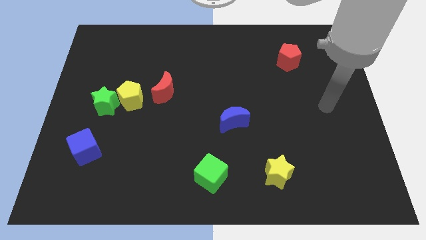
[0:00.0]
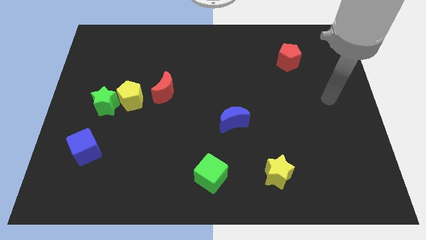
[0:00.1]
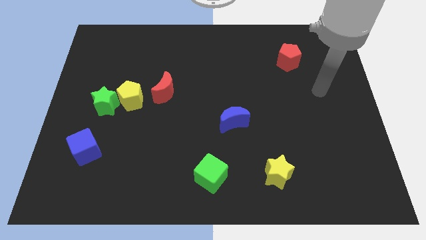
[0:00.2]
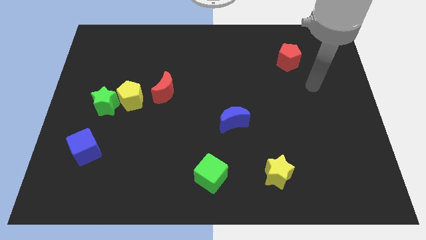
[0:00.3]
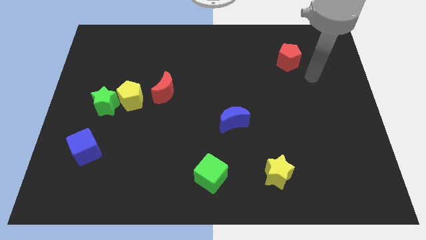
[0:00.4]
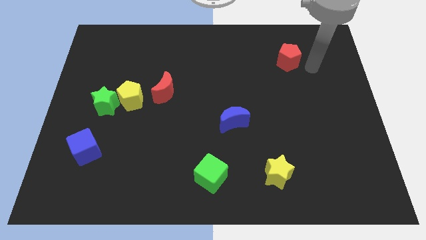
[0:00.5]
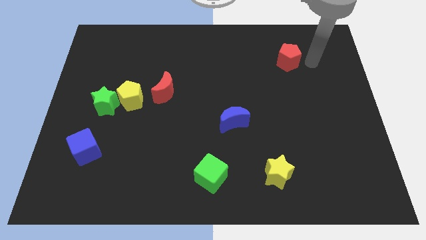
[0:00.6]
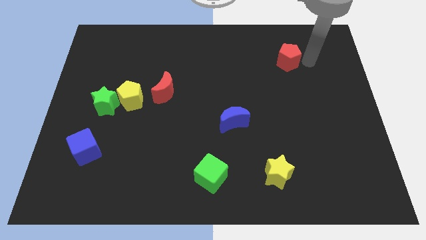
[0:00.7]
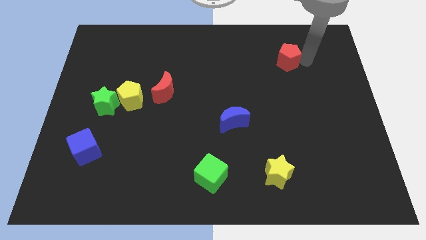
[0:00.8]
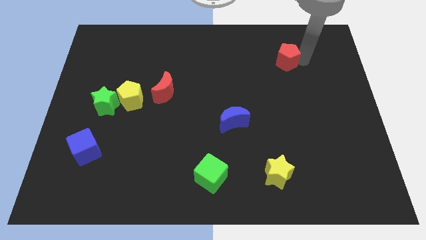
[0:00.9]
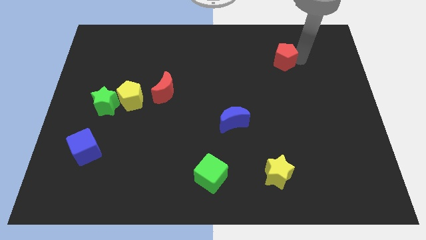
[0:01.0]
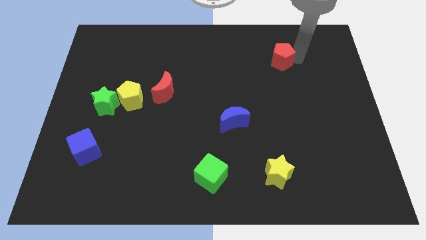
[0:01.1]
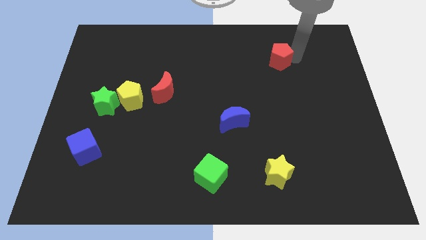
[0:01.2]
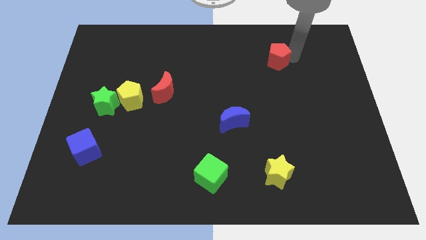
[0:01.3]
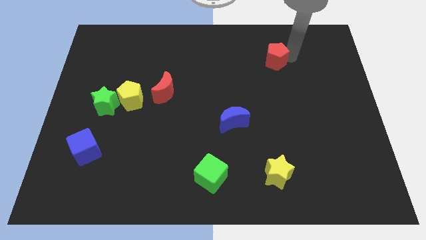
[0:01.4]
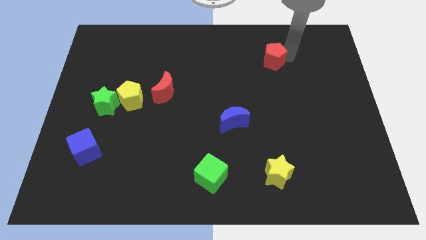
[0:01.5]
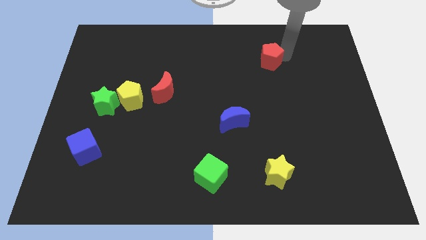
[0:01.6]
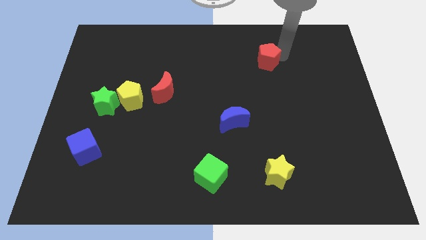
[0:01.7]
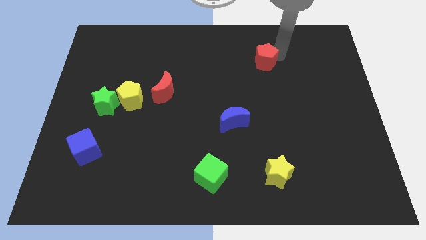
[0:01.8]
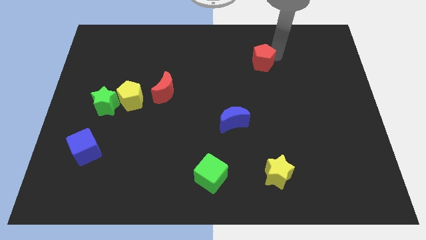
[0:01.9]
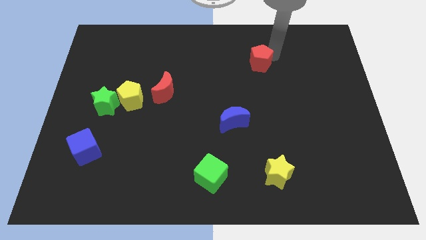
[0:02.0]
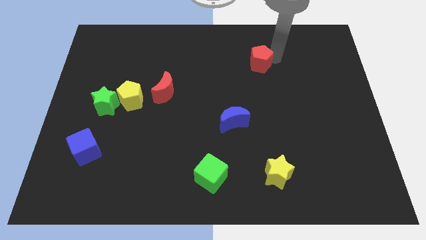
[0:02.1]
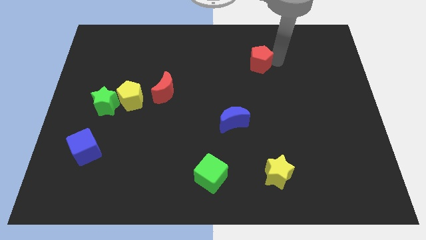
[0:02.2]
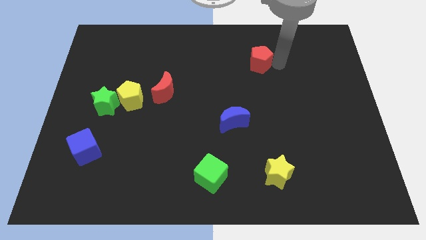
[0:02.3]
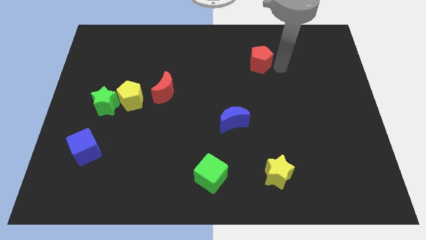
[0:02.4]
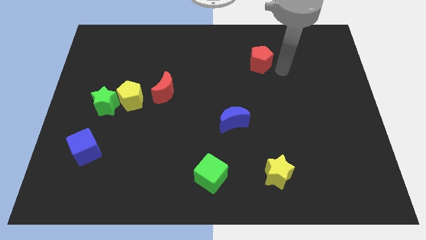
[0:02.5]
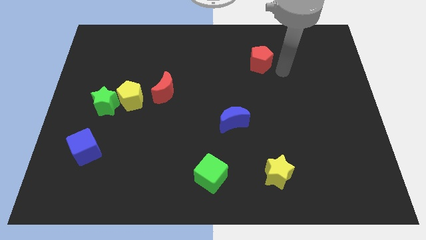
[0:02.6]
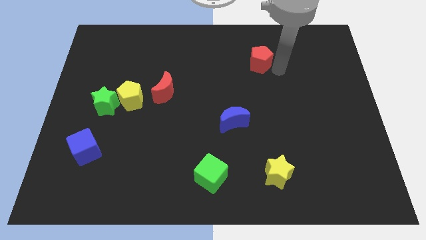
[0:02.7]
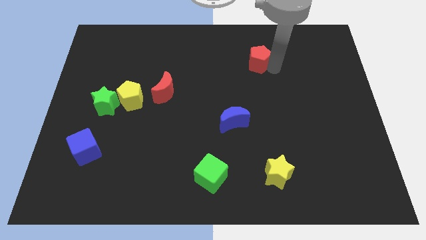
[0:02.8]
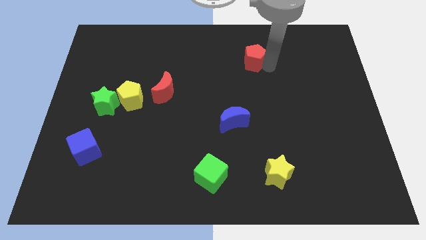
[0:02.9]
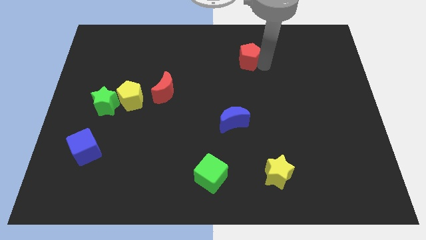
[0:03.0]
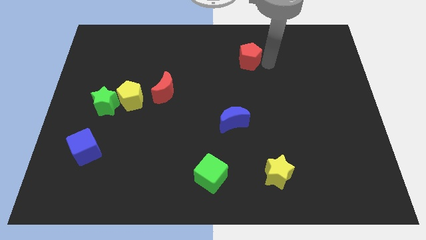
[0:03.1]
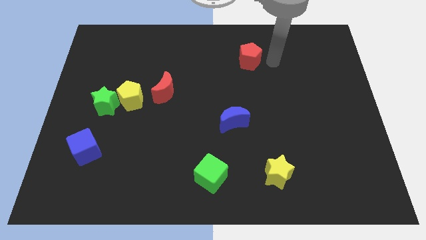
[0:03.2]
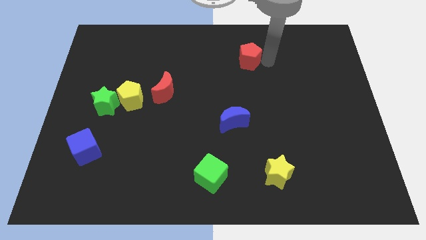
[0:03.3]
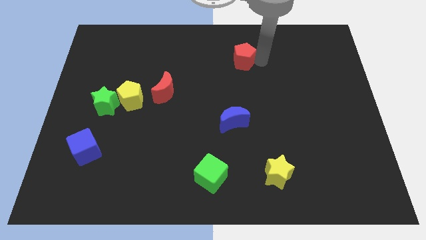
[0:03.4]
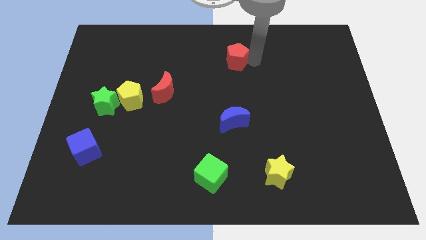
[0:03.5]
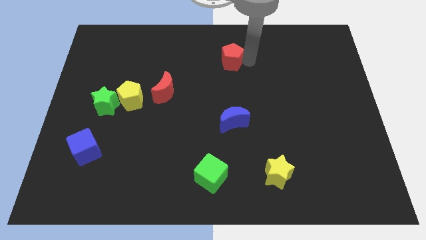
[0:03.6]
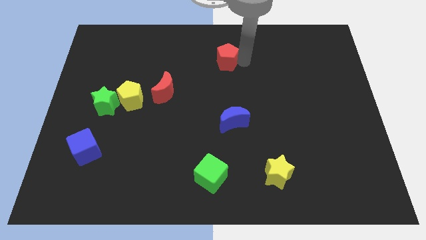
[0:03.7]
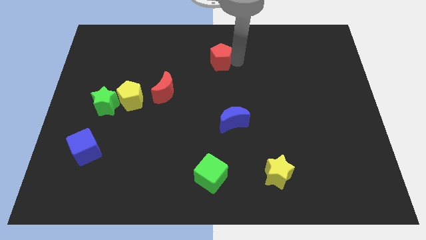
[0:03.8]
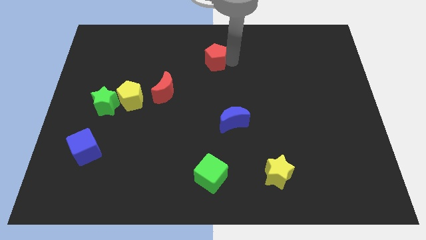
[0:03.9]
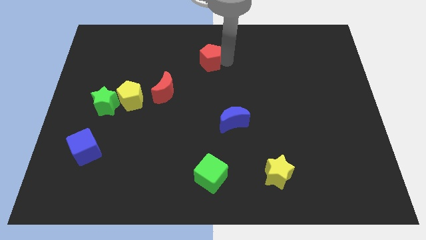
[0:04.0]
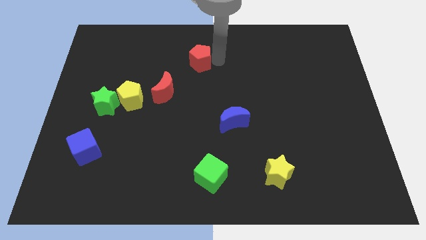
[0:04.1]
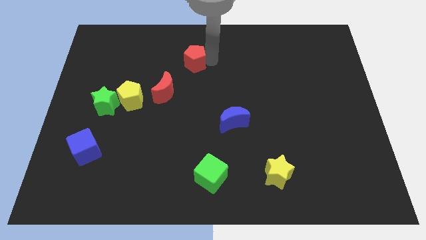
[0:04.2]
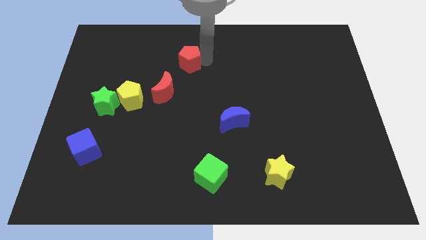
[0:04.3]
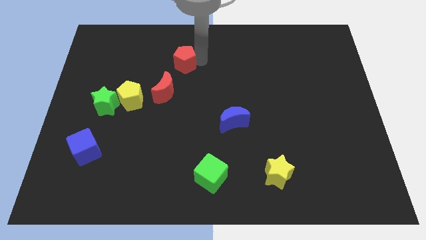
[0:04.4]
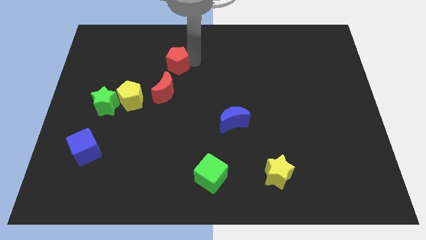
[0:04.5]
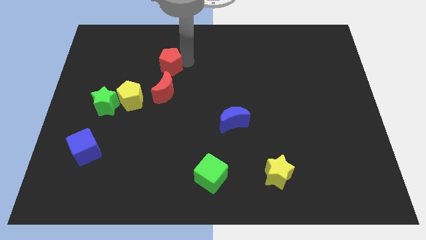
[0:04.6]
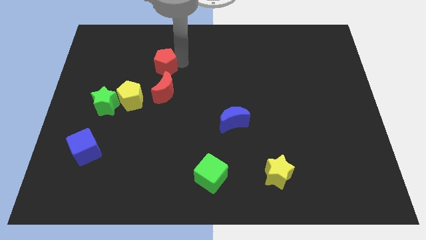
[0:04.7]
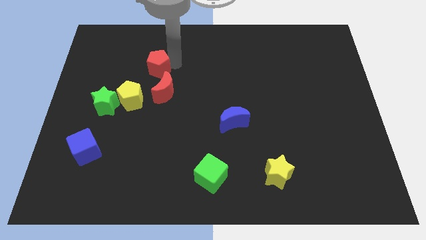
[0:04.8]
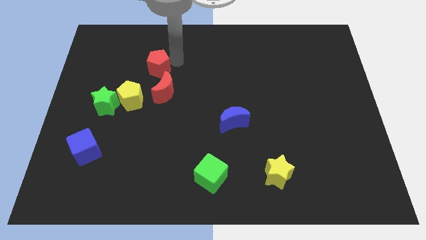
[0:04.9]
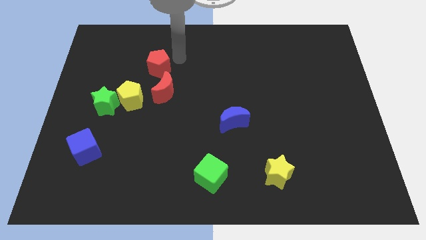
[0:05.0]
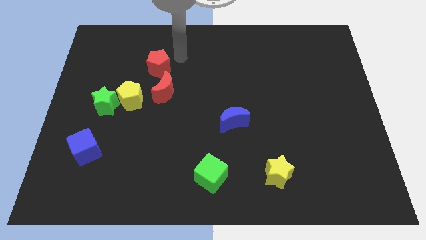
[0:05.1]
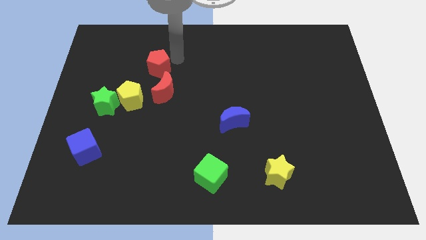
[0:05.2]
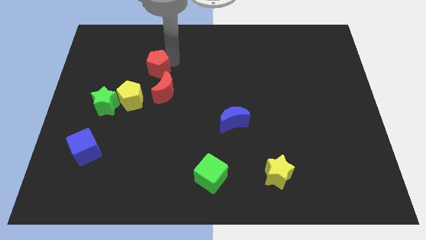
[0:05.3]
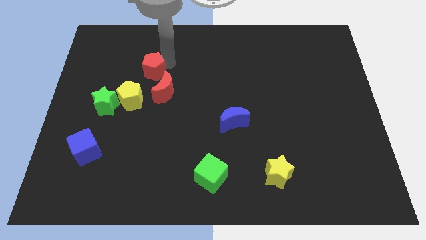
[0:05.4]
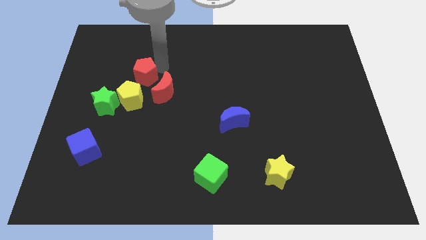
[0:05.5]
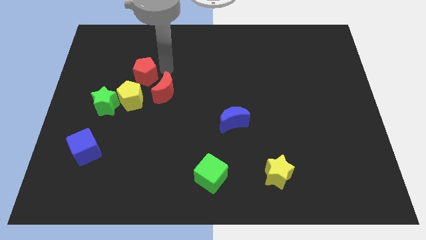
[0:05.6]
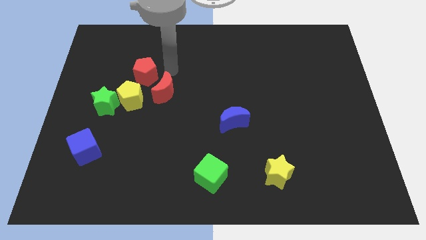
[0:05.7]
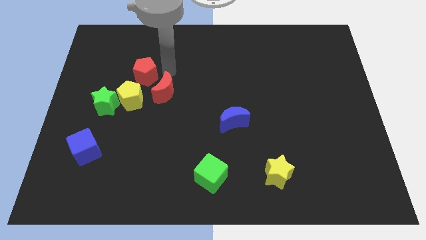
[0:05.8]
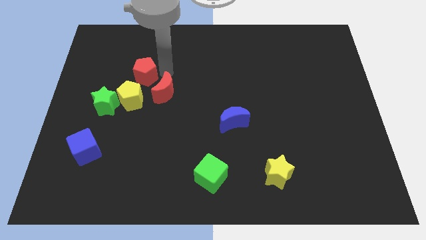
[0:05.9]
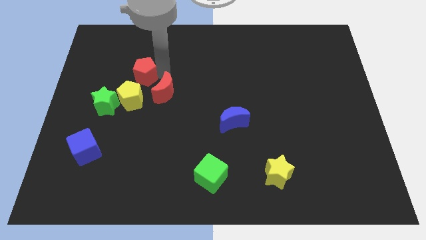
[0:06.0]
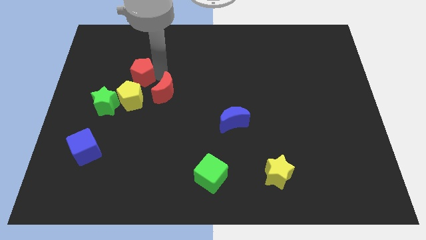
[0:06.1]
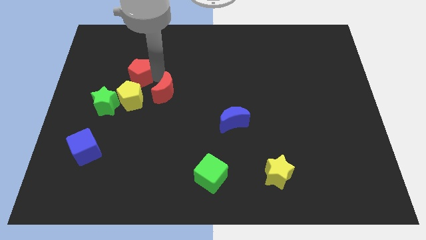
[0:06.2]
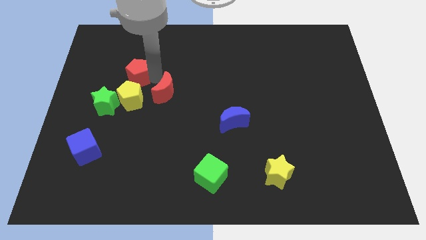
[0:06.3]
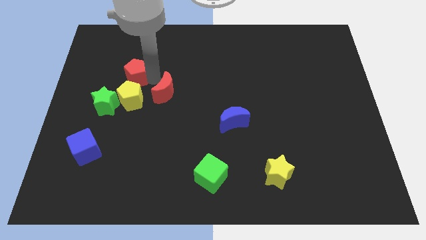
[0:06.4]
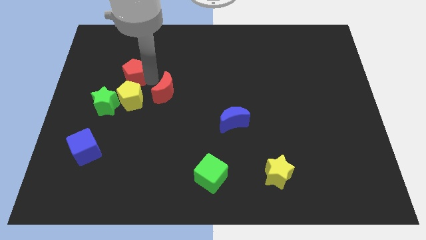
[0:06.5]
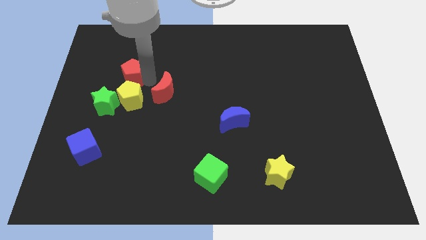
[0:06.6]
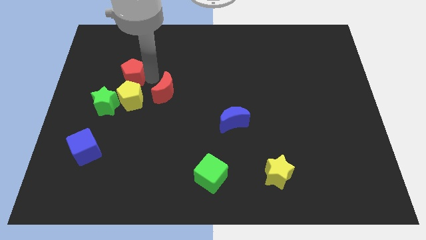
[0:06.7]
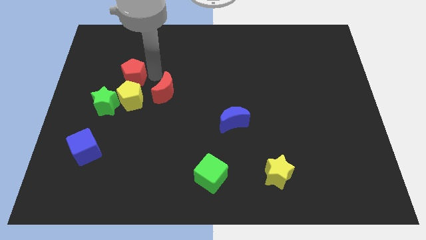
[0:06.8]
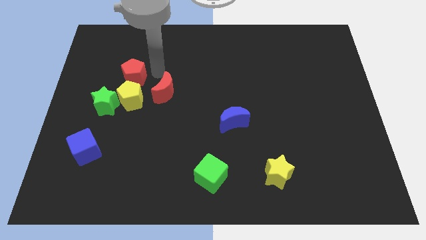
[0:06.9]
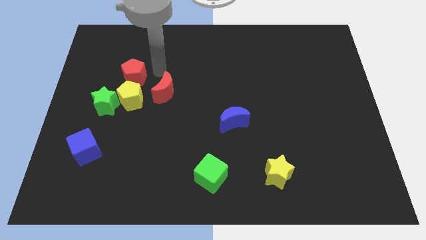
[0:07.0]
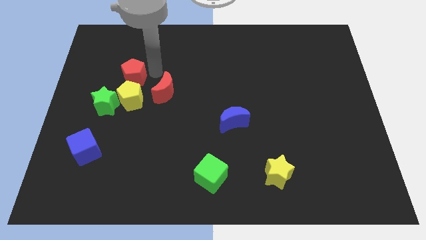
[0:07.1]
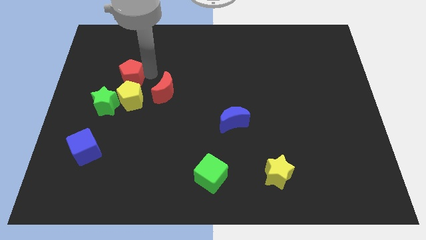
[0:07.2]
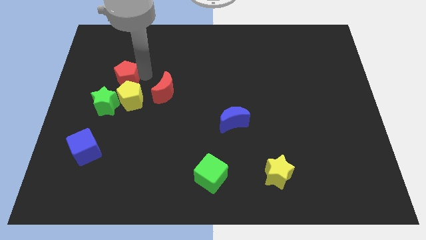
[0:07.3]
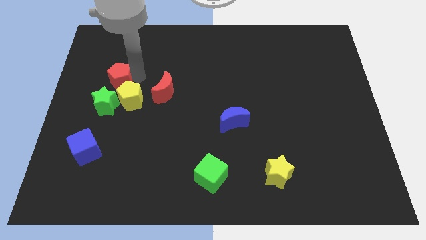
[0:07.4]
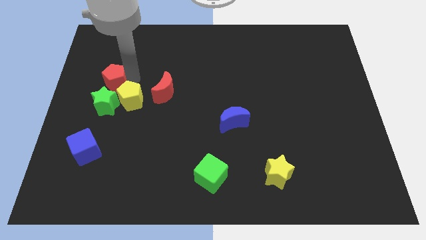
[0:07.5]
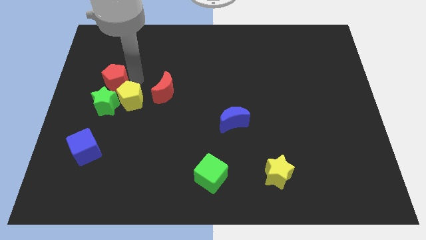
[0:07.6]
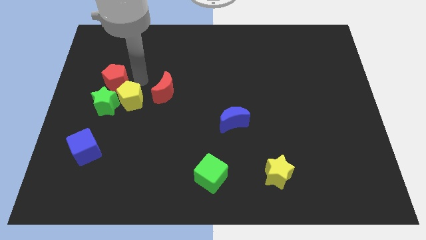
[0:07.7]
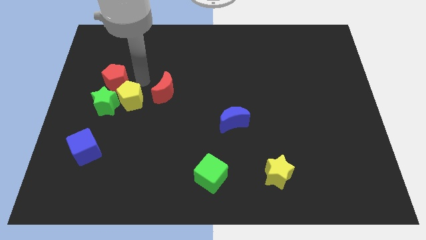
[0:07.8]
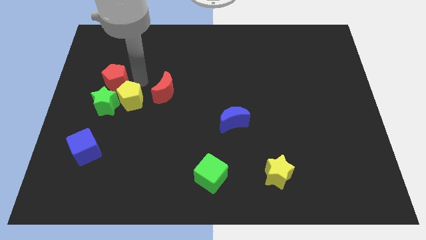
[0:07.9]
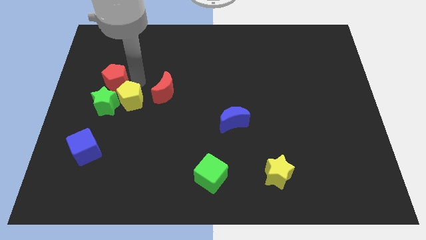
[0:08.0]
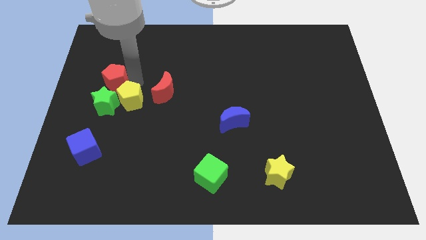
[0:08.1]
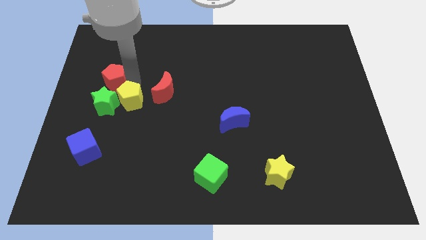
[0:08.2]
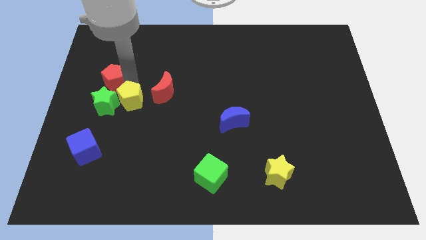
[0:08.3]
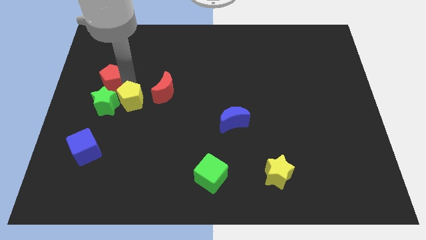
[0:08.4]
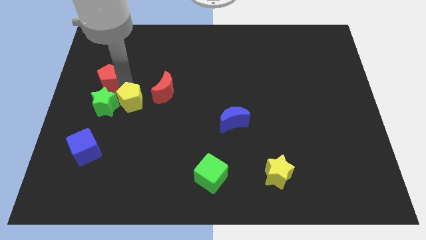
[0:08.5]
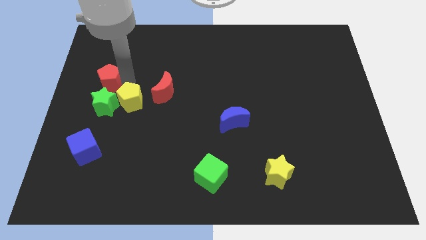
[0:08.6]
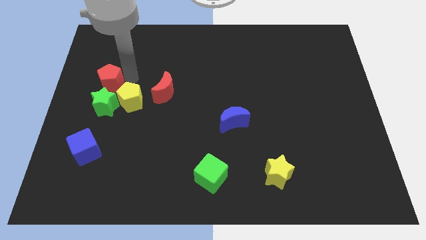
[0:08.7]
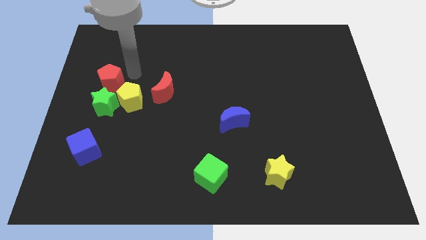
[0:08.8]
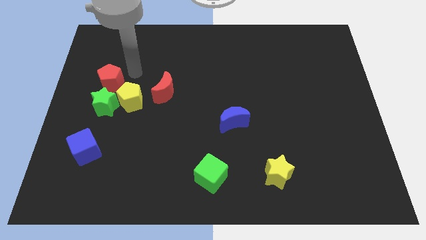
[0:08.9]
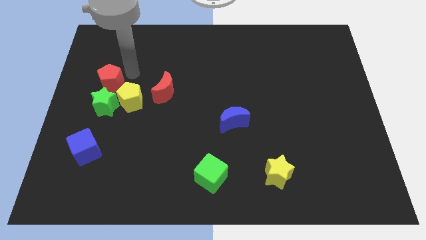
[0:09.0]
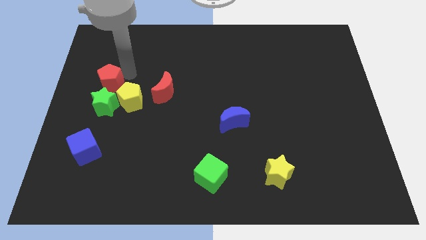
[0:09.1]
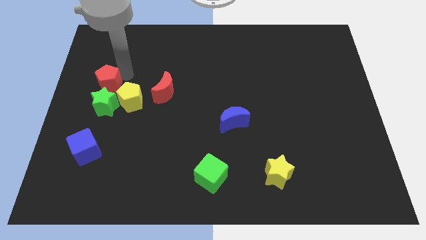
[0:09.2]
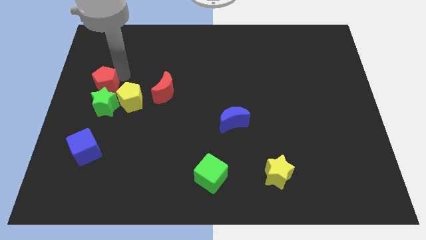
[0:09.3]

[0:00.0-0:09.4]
push the red pentagon to the left side
